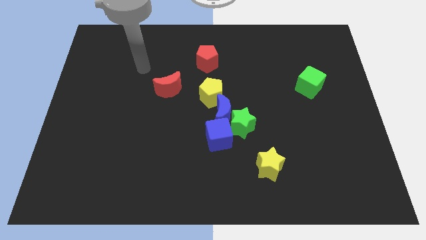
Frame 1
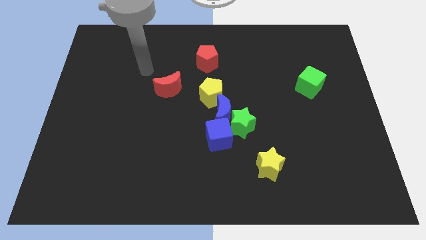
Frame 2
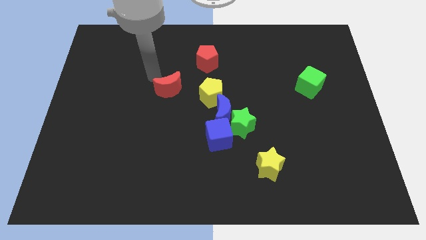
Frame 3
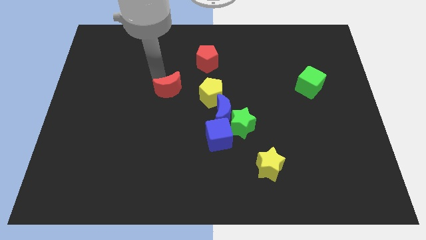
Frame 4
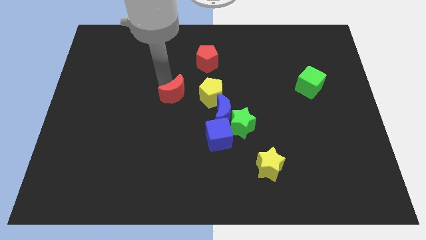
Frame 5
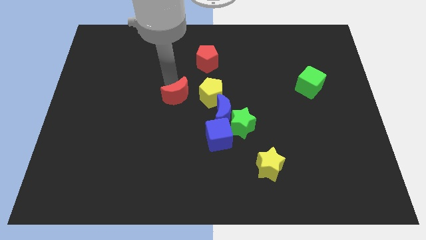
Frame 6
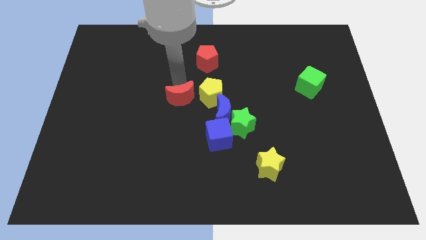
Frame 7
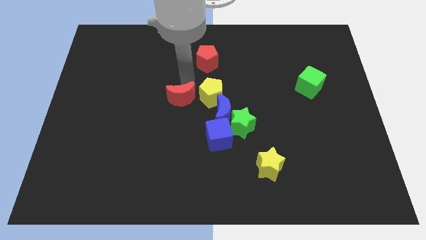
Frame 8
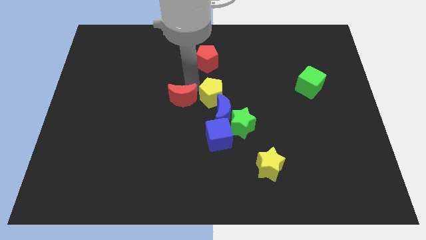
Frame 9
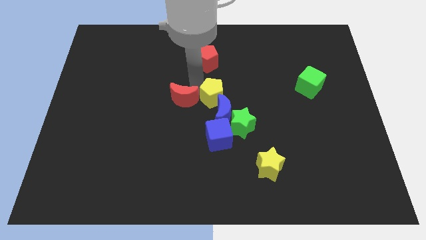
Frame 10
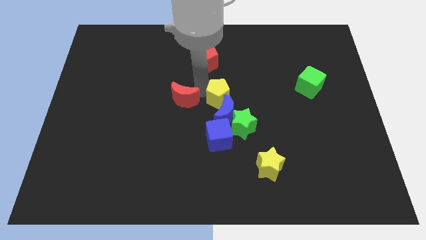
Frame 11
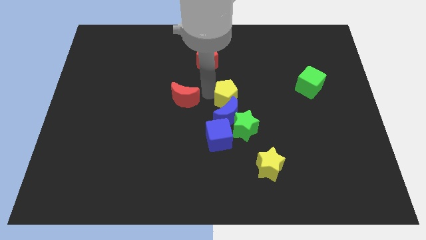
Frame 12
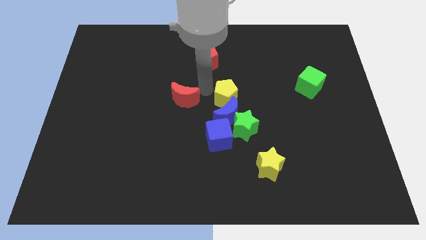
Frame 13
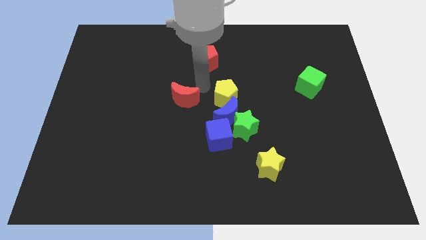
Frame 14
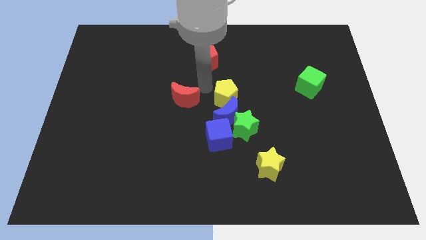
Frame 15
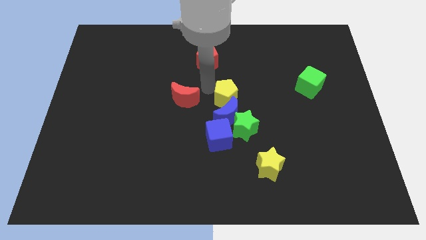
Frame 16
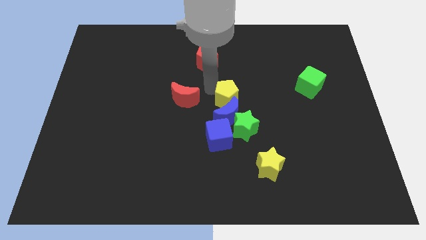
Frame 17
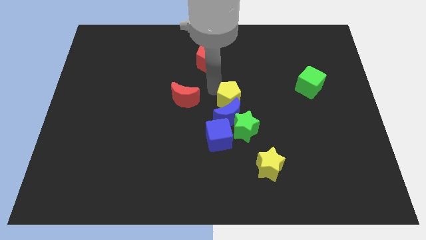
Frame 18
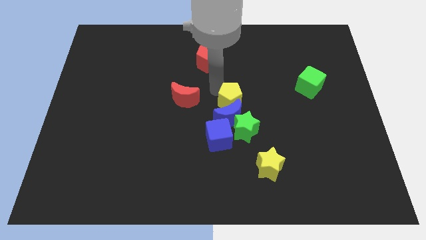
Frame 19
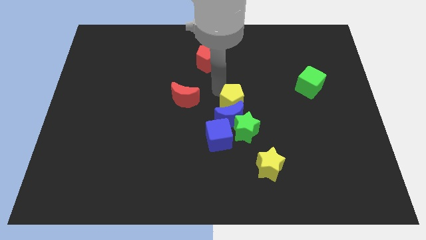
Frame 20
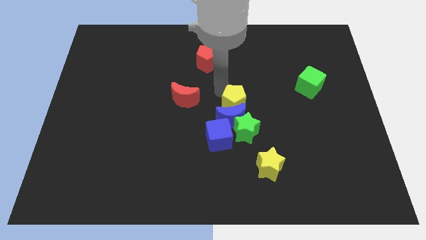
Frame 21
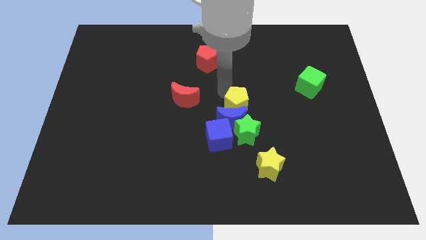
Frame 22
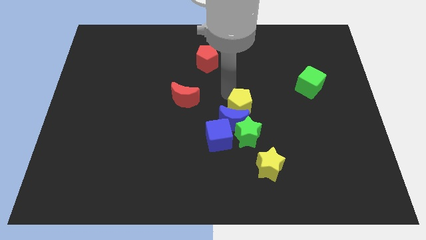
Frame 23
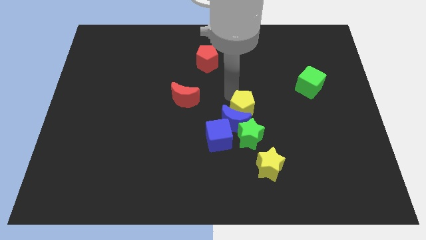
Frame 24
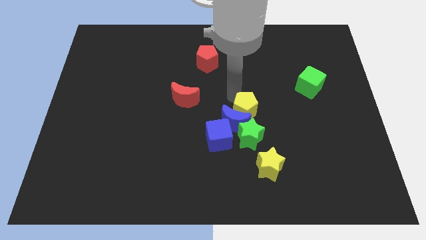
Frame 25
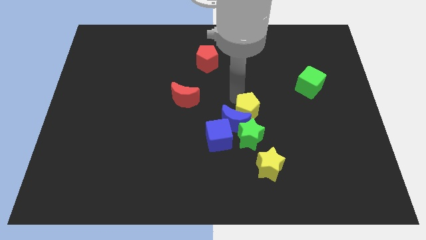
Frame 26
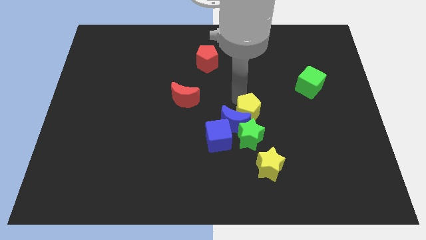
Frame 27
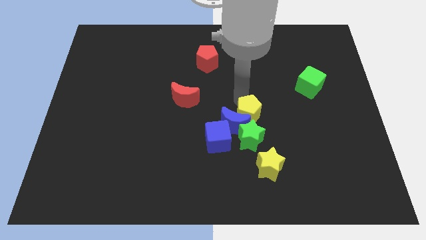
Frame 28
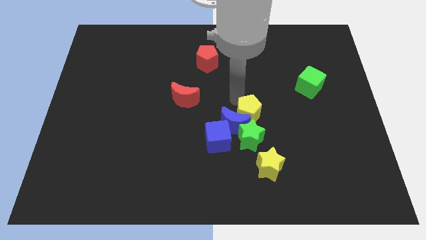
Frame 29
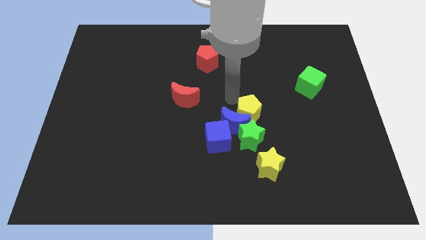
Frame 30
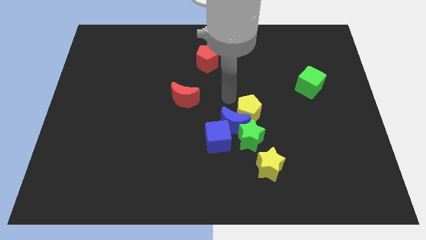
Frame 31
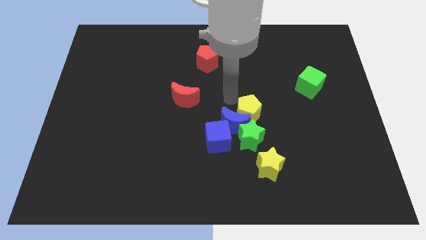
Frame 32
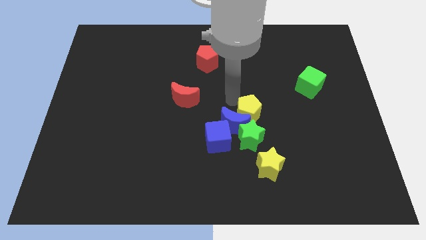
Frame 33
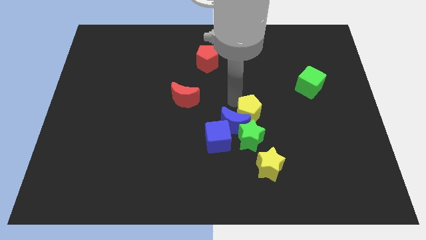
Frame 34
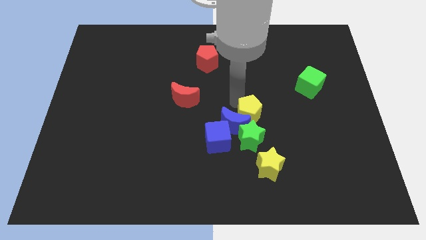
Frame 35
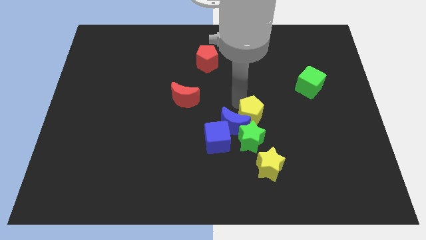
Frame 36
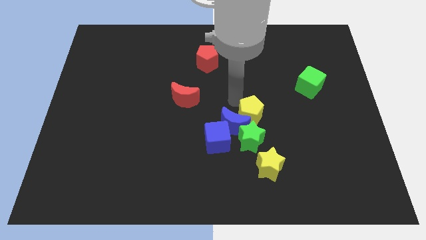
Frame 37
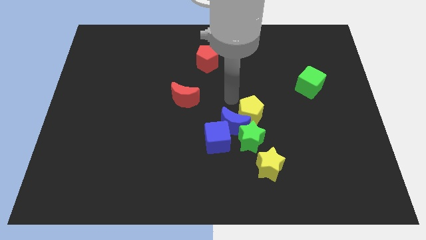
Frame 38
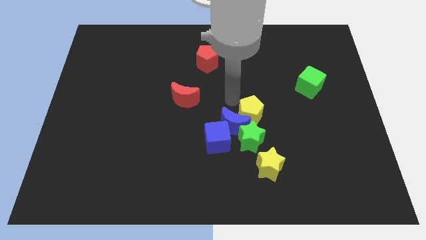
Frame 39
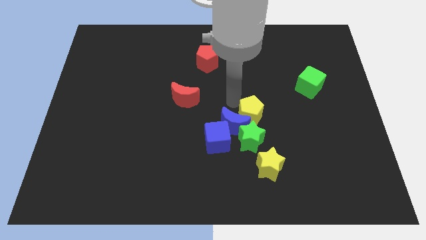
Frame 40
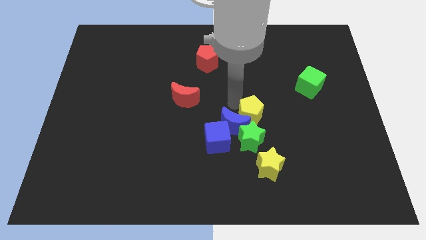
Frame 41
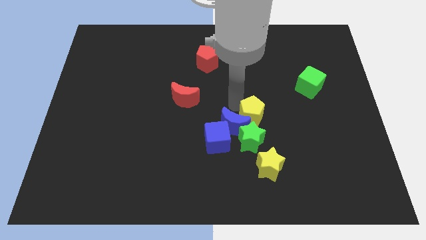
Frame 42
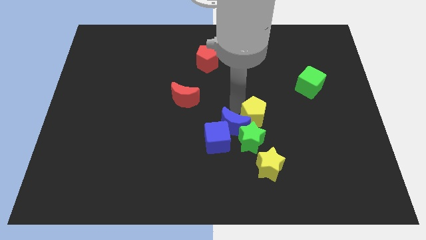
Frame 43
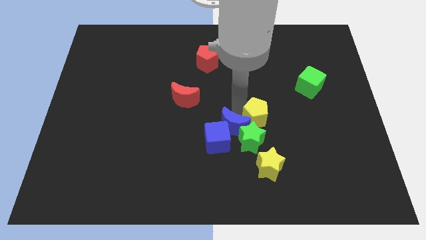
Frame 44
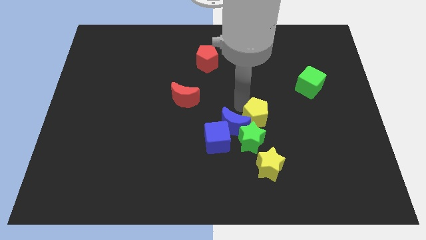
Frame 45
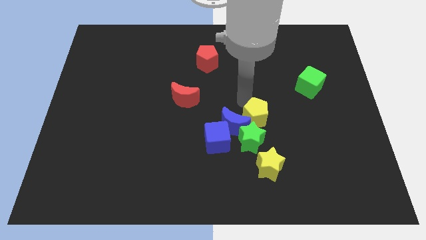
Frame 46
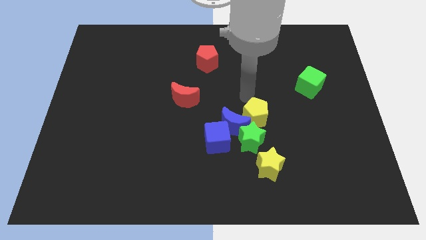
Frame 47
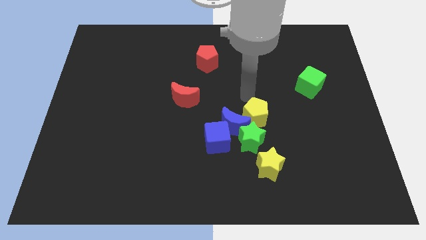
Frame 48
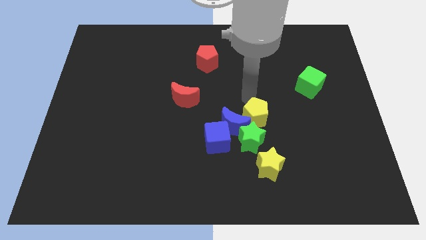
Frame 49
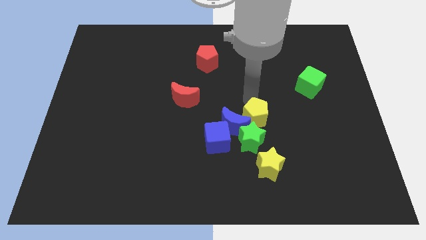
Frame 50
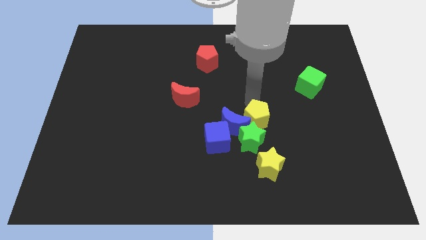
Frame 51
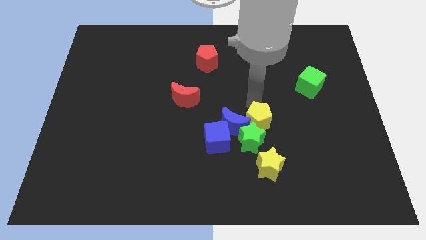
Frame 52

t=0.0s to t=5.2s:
move the yellow pentagon diagonally down and to the right of the blue moon

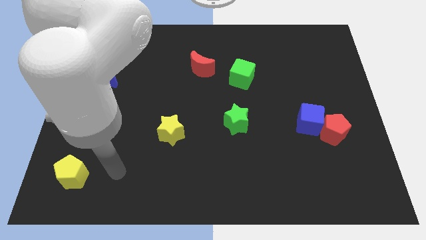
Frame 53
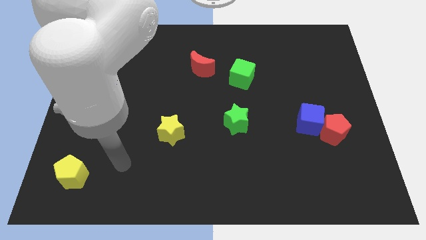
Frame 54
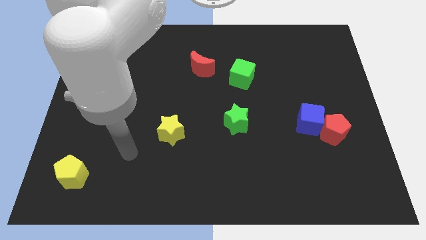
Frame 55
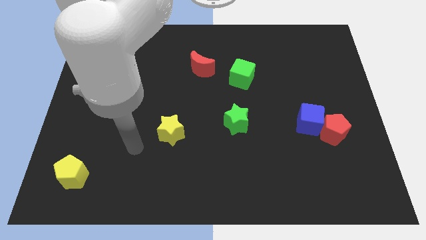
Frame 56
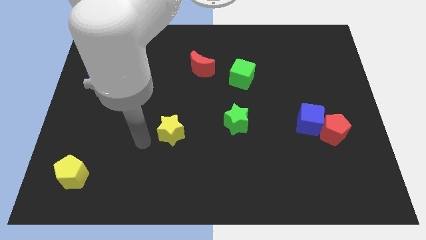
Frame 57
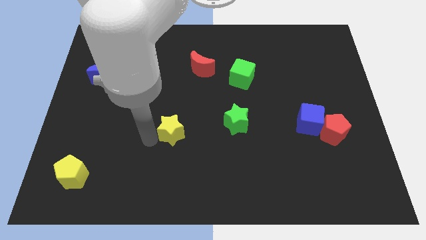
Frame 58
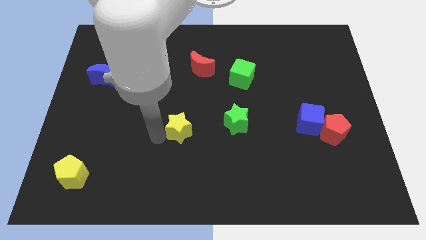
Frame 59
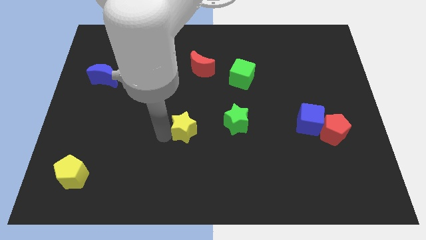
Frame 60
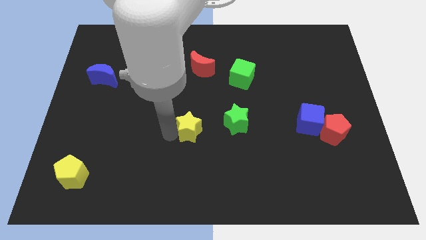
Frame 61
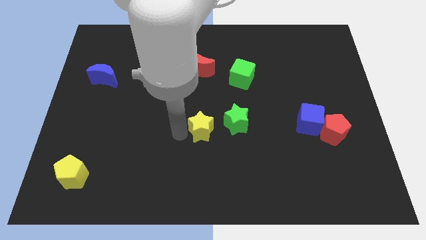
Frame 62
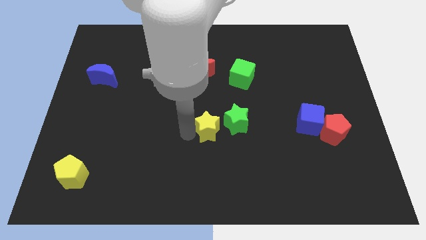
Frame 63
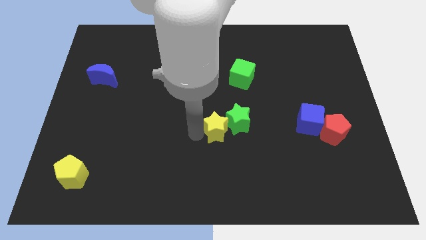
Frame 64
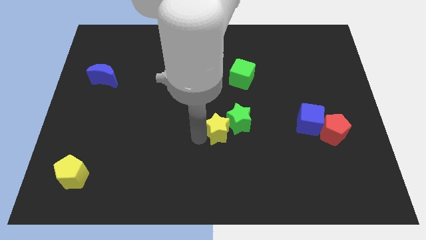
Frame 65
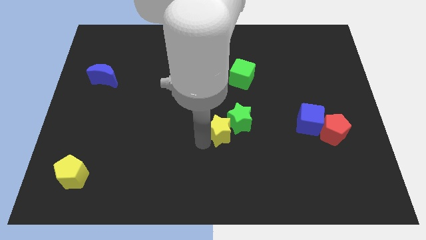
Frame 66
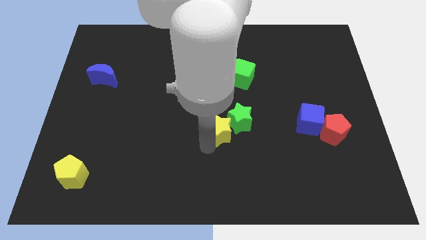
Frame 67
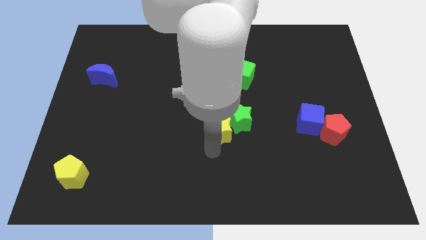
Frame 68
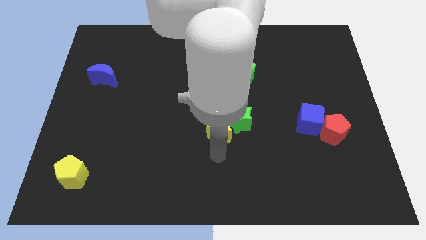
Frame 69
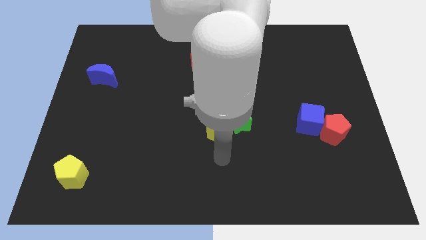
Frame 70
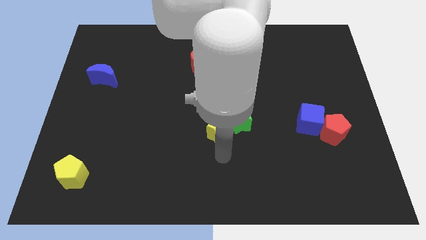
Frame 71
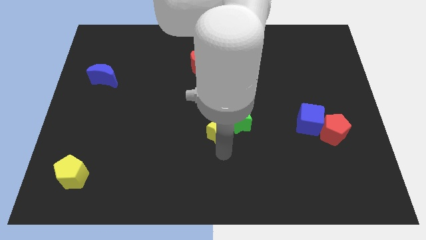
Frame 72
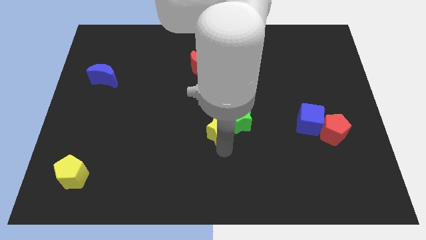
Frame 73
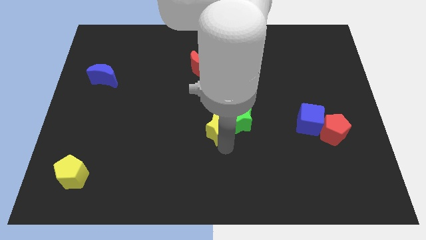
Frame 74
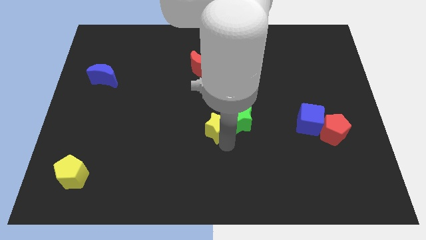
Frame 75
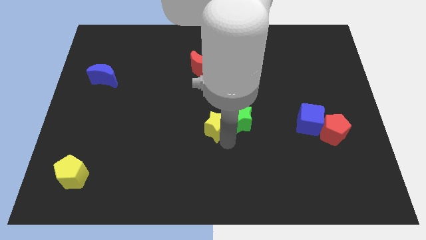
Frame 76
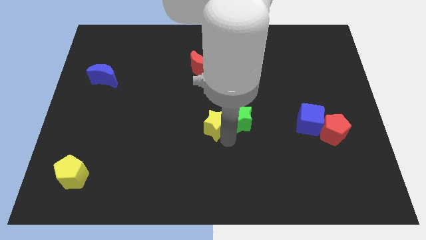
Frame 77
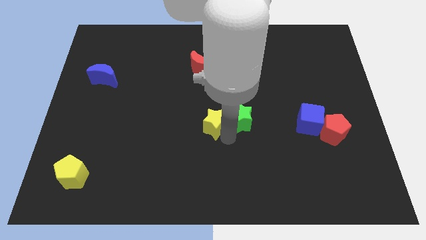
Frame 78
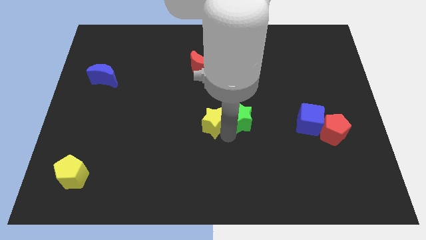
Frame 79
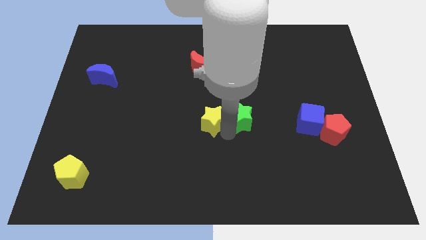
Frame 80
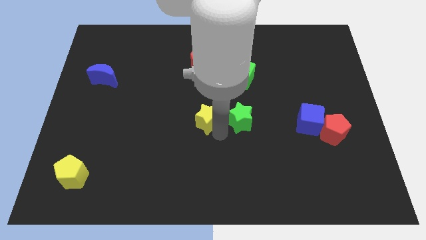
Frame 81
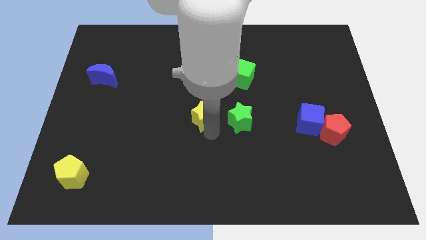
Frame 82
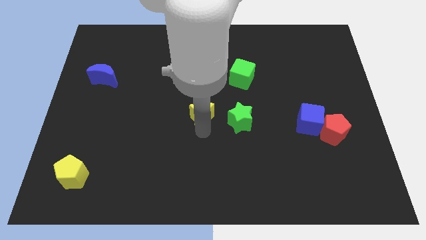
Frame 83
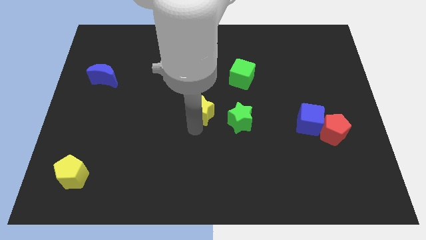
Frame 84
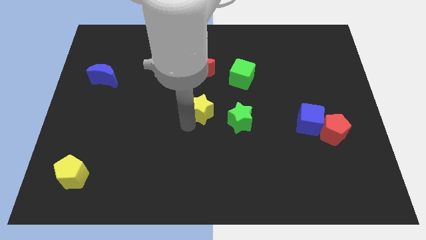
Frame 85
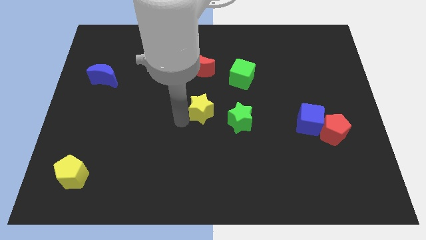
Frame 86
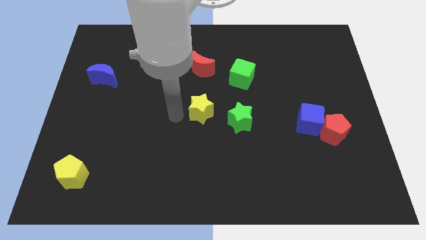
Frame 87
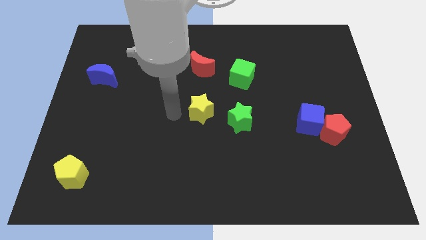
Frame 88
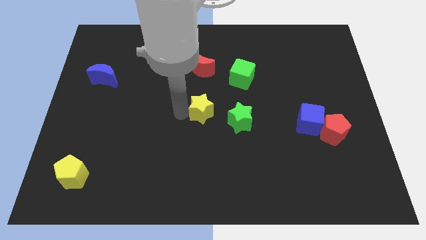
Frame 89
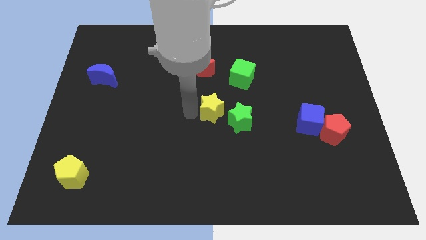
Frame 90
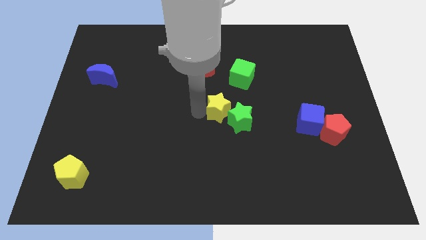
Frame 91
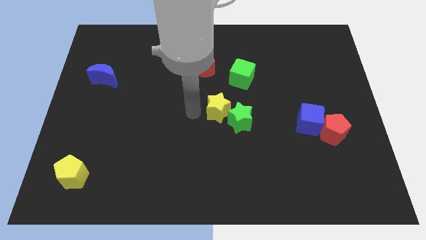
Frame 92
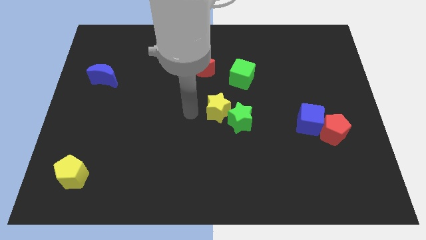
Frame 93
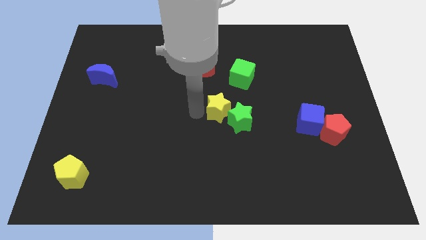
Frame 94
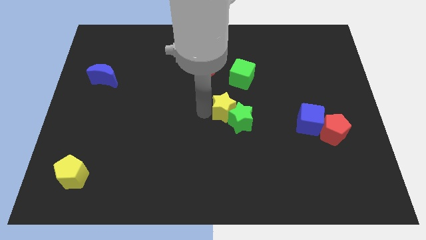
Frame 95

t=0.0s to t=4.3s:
move the yellow star to the bottom side of the green cube
